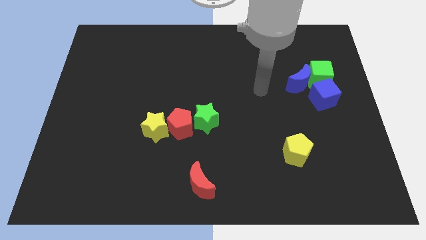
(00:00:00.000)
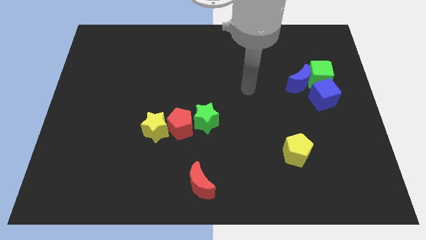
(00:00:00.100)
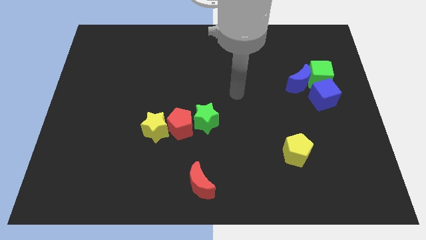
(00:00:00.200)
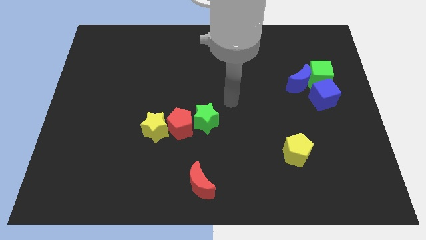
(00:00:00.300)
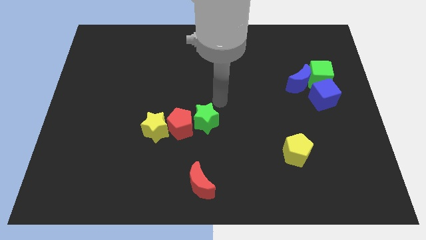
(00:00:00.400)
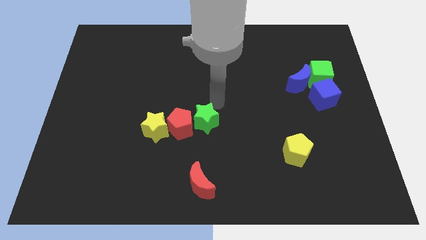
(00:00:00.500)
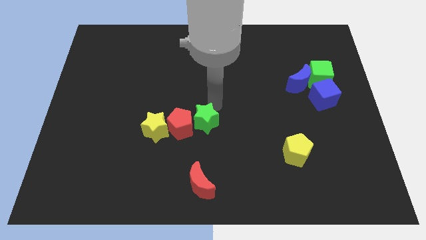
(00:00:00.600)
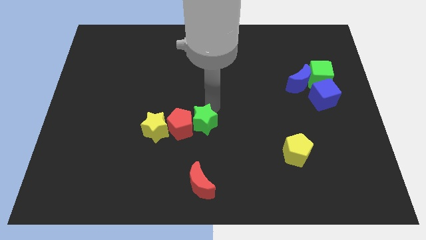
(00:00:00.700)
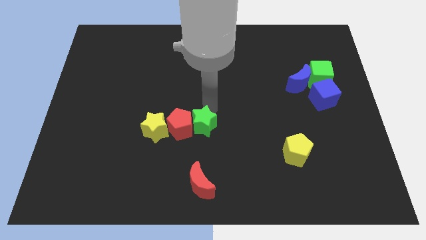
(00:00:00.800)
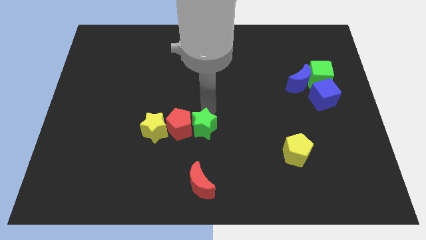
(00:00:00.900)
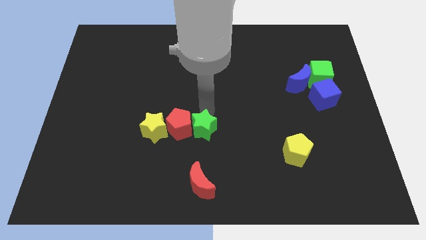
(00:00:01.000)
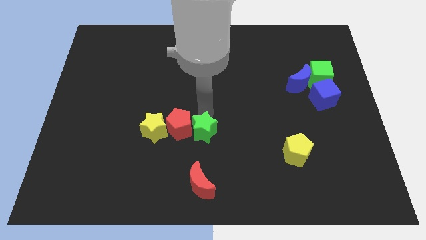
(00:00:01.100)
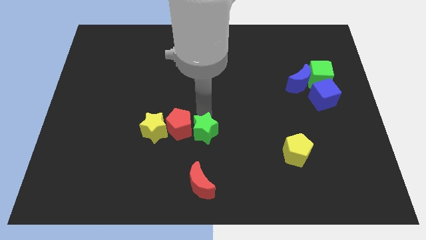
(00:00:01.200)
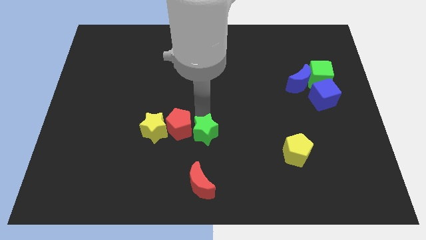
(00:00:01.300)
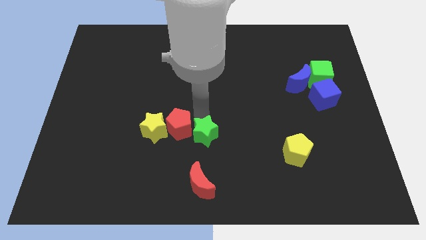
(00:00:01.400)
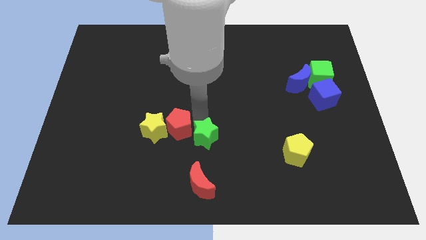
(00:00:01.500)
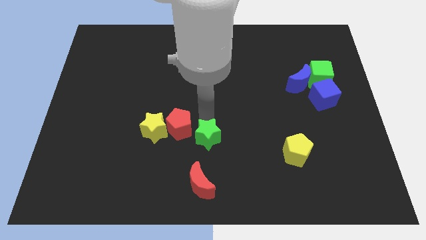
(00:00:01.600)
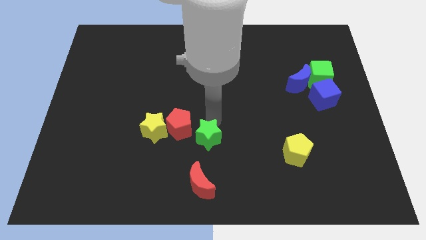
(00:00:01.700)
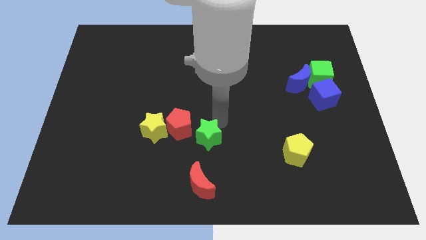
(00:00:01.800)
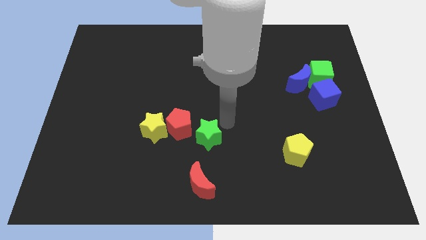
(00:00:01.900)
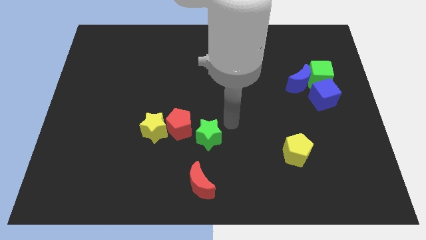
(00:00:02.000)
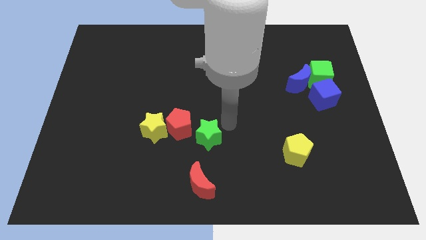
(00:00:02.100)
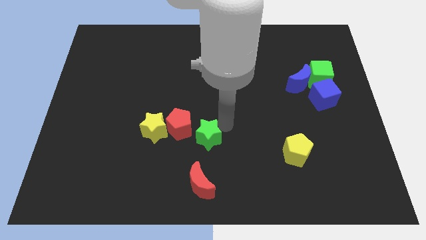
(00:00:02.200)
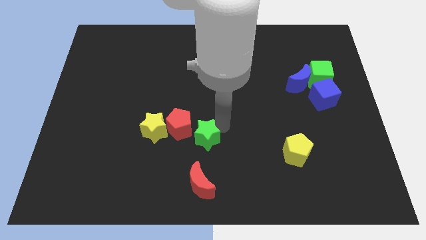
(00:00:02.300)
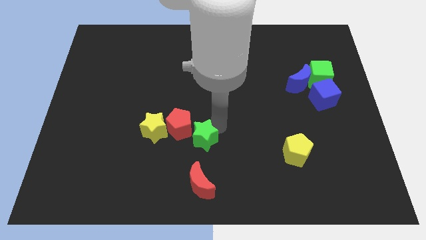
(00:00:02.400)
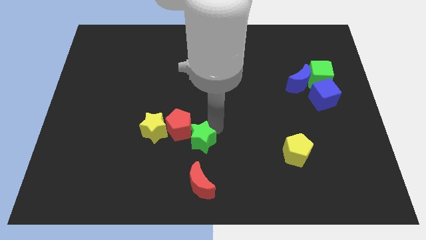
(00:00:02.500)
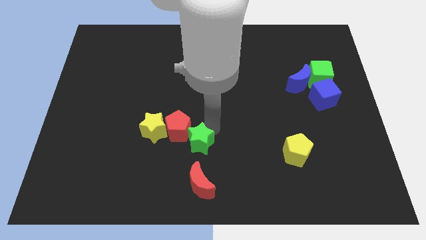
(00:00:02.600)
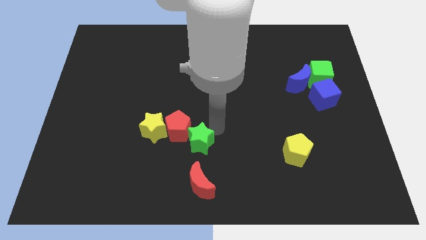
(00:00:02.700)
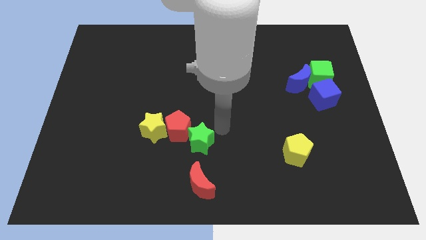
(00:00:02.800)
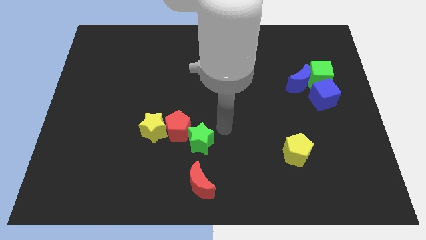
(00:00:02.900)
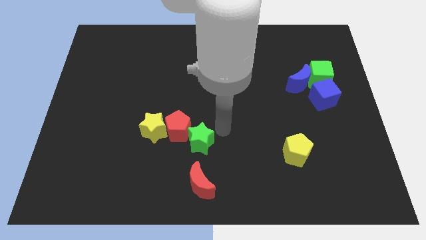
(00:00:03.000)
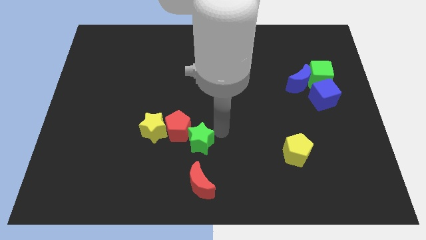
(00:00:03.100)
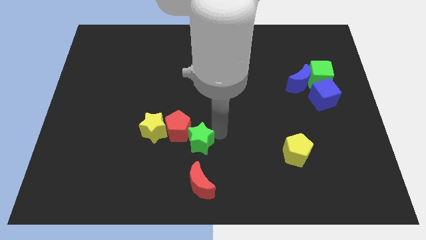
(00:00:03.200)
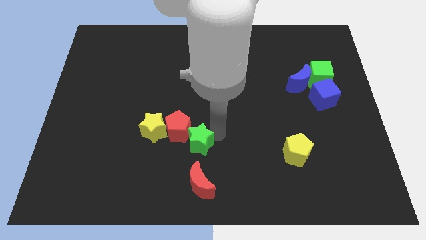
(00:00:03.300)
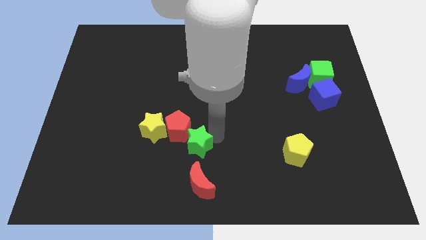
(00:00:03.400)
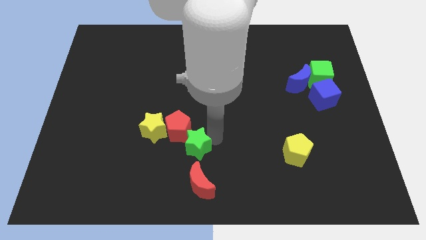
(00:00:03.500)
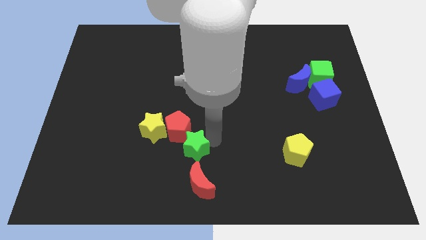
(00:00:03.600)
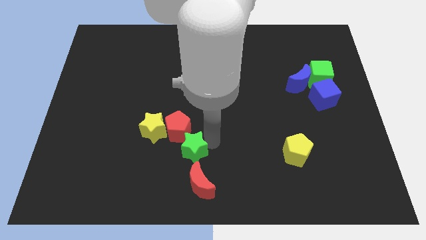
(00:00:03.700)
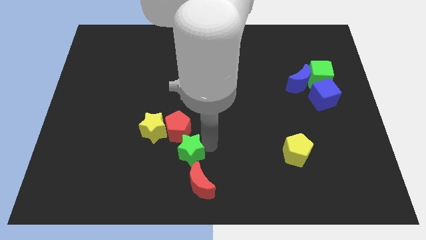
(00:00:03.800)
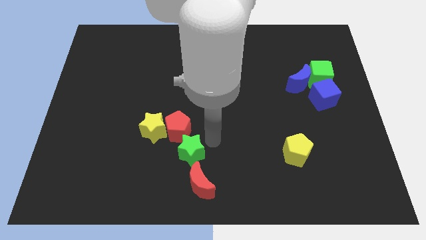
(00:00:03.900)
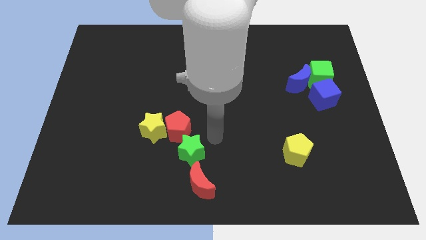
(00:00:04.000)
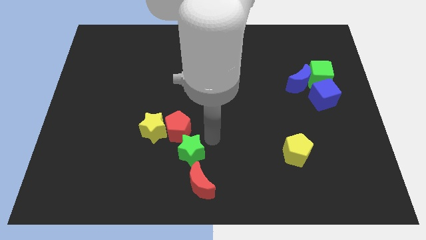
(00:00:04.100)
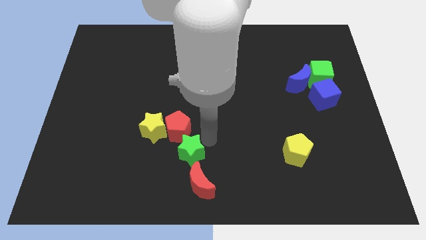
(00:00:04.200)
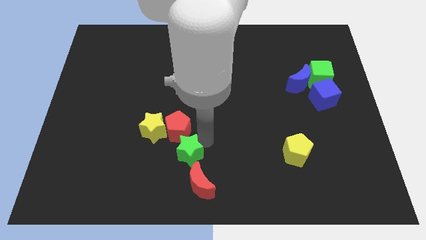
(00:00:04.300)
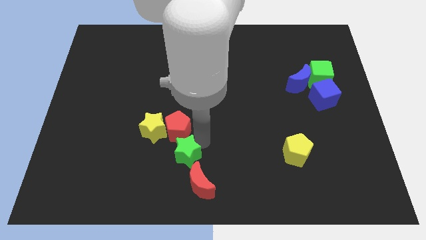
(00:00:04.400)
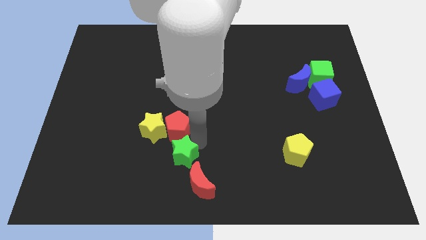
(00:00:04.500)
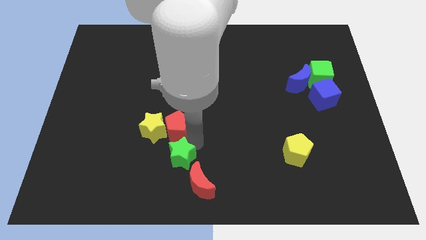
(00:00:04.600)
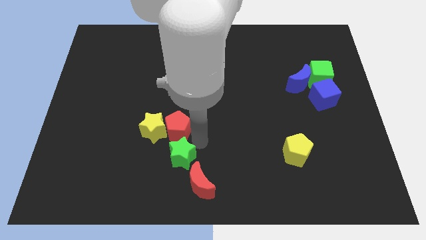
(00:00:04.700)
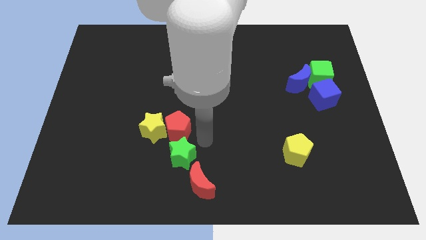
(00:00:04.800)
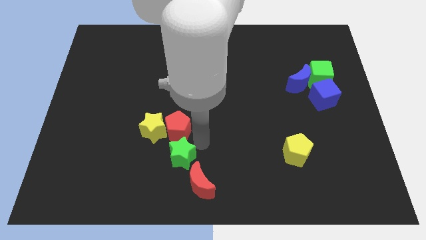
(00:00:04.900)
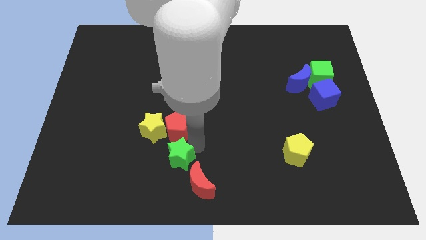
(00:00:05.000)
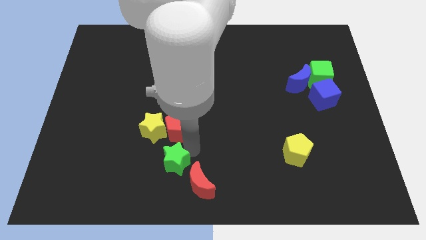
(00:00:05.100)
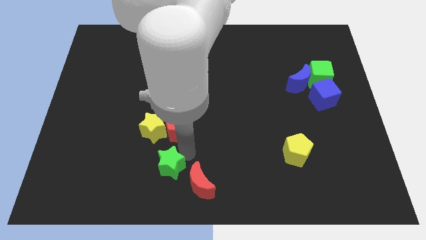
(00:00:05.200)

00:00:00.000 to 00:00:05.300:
push the green star to the left side of the red moon

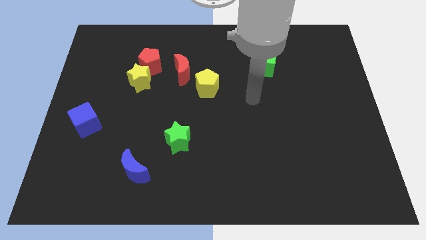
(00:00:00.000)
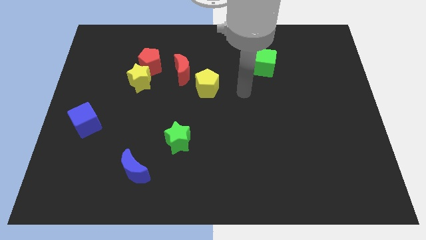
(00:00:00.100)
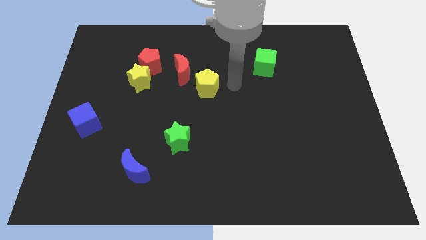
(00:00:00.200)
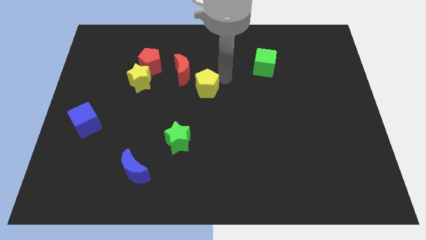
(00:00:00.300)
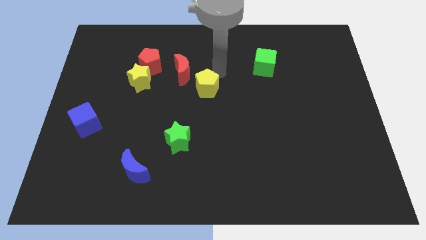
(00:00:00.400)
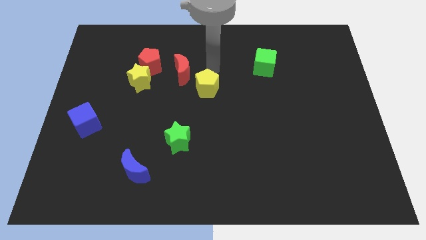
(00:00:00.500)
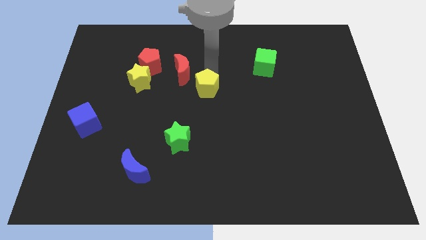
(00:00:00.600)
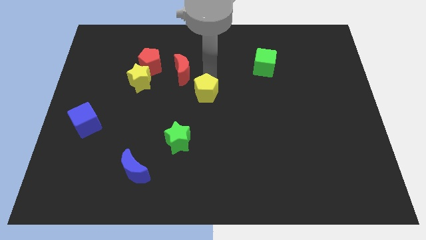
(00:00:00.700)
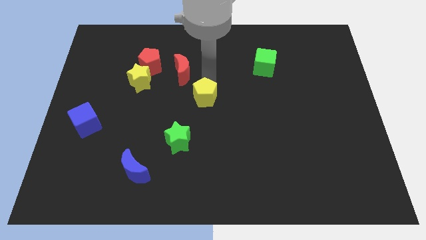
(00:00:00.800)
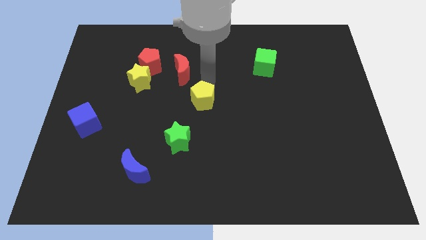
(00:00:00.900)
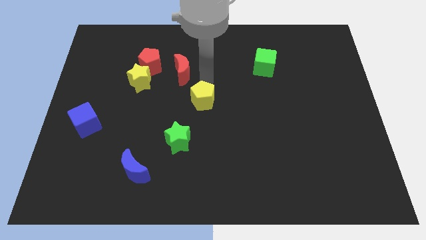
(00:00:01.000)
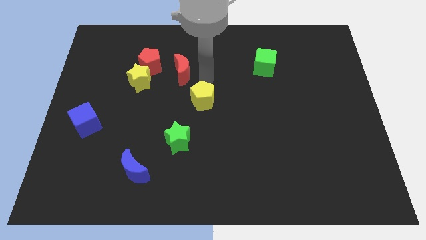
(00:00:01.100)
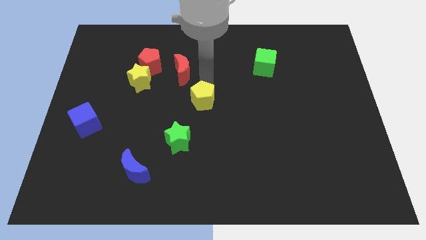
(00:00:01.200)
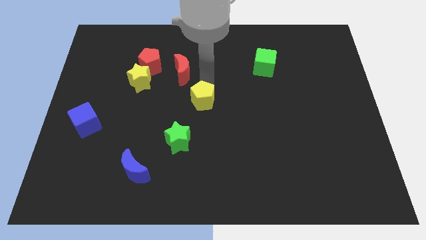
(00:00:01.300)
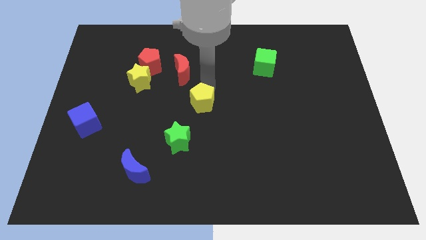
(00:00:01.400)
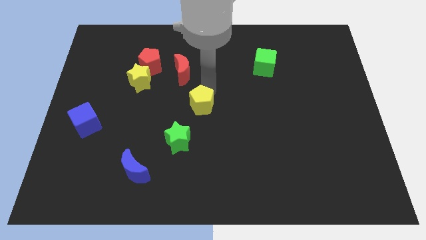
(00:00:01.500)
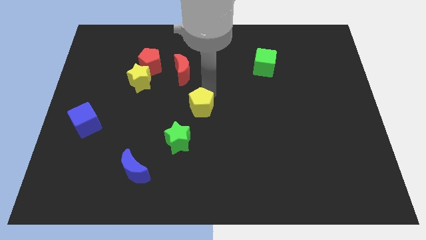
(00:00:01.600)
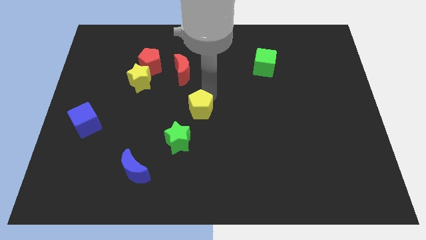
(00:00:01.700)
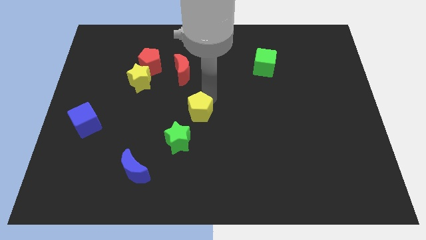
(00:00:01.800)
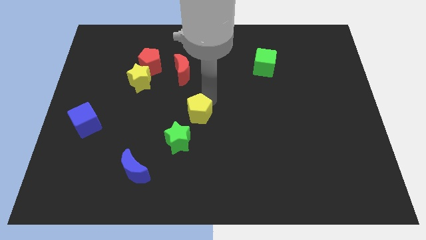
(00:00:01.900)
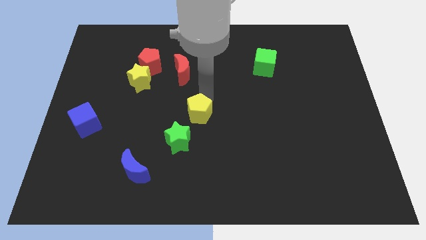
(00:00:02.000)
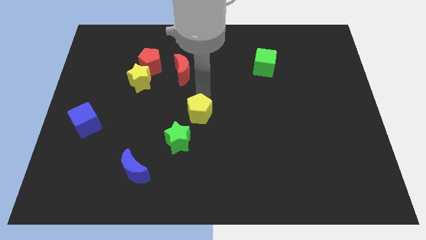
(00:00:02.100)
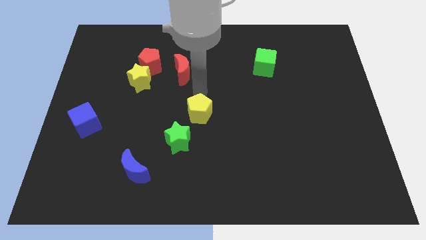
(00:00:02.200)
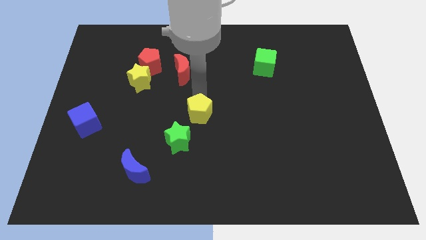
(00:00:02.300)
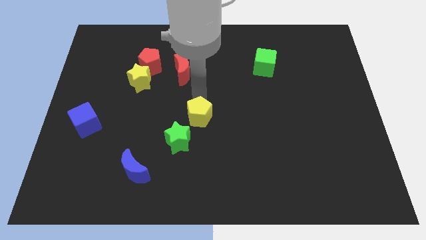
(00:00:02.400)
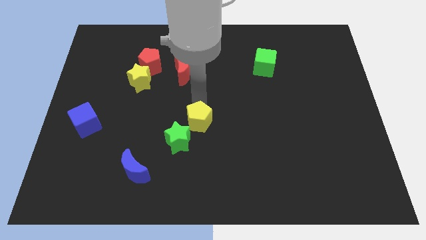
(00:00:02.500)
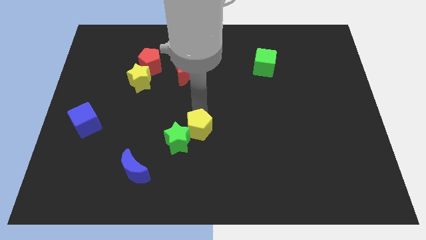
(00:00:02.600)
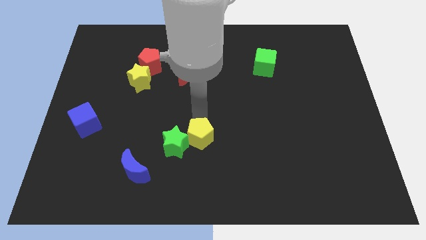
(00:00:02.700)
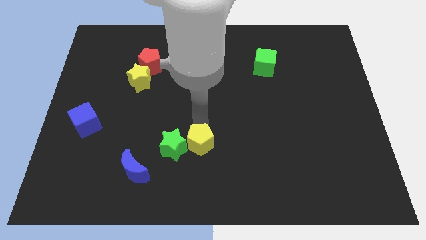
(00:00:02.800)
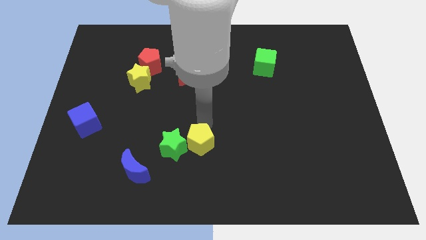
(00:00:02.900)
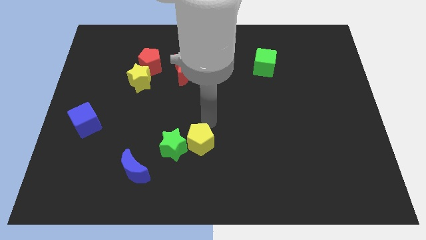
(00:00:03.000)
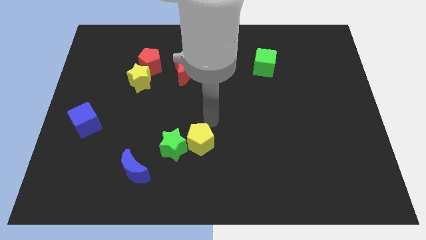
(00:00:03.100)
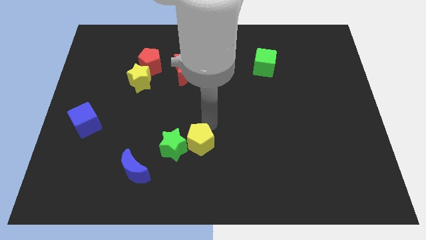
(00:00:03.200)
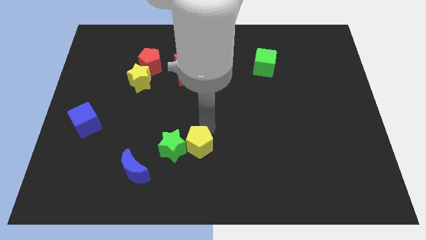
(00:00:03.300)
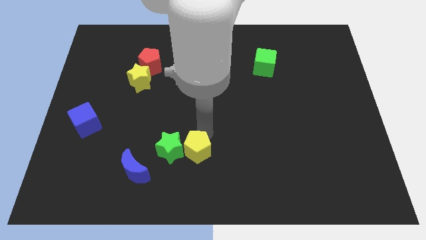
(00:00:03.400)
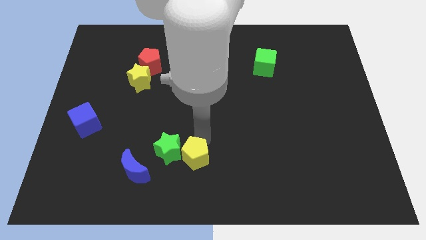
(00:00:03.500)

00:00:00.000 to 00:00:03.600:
put the yellow pentagon right of the blue moon
